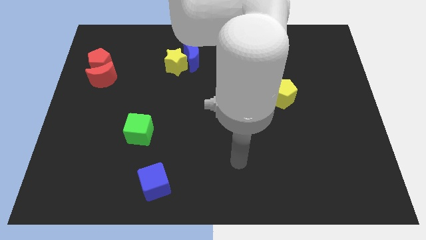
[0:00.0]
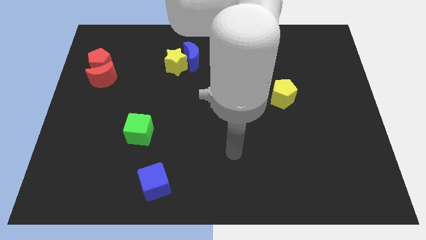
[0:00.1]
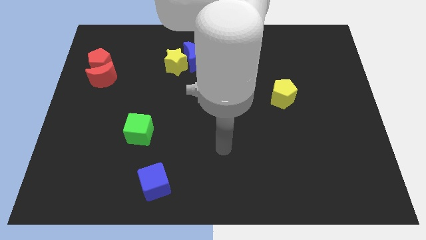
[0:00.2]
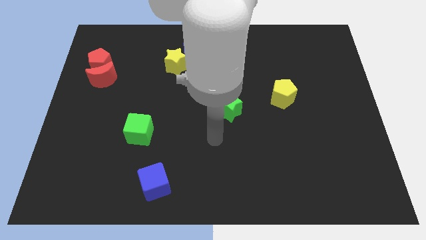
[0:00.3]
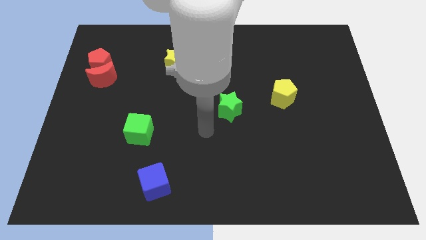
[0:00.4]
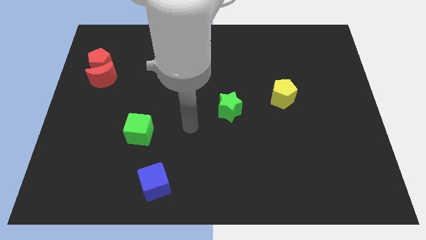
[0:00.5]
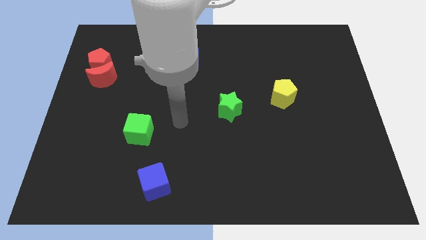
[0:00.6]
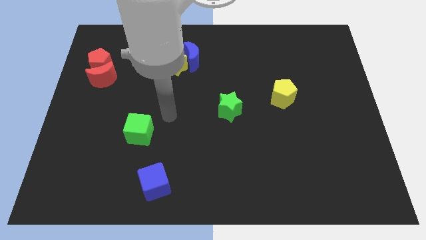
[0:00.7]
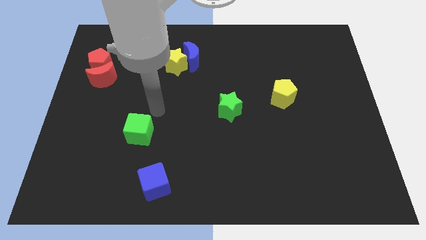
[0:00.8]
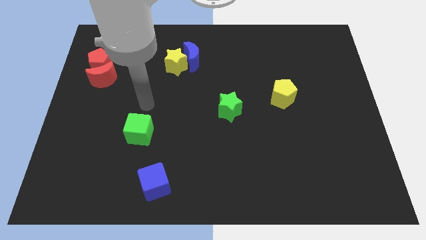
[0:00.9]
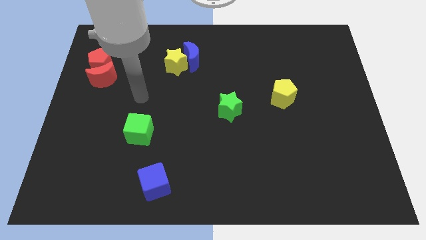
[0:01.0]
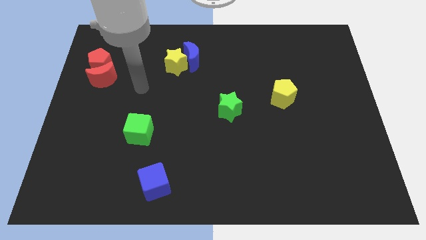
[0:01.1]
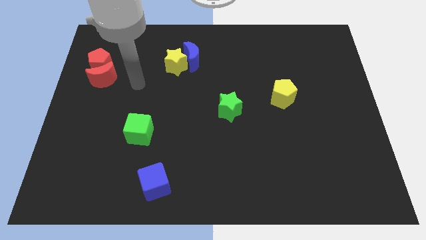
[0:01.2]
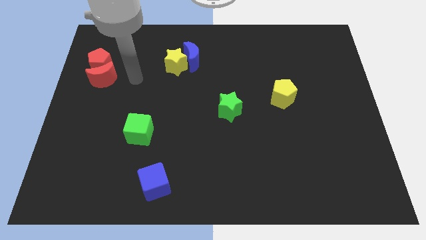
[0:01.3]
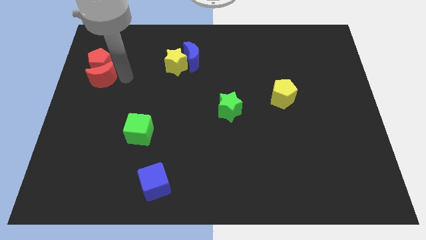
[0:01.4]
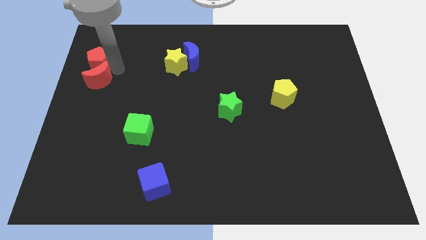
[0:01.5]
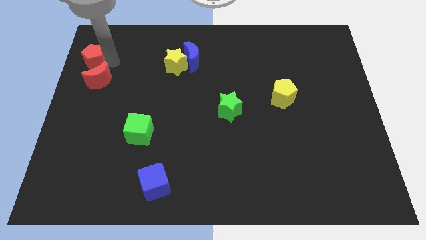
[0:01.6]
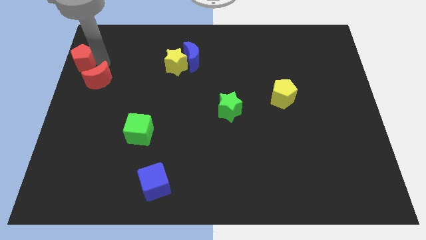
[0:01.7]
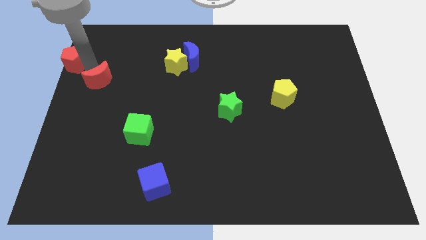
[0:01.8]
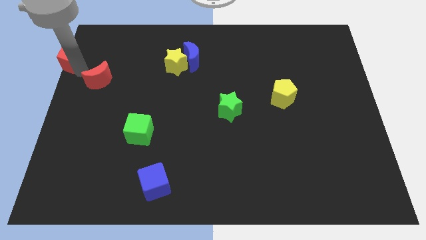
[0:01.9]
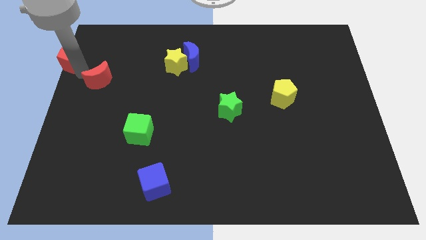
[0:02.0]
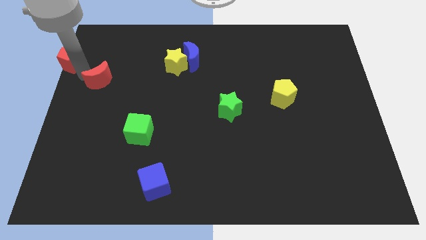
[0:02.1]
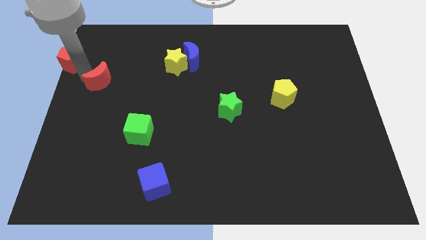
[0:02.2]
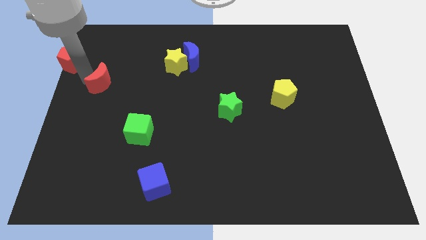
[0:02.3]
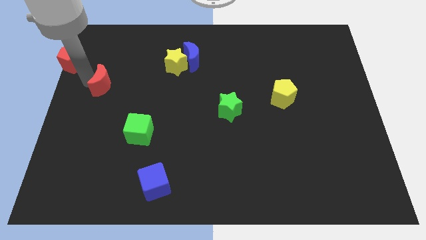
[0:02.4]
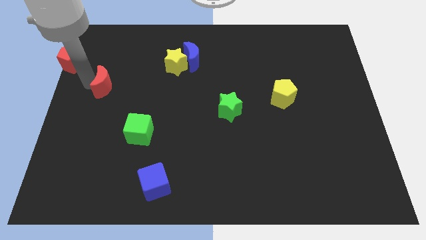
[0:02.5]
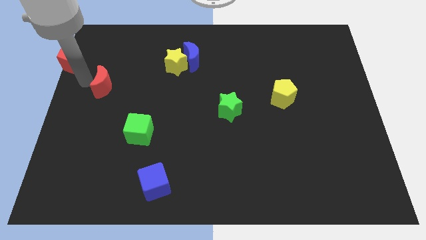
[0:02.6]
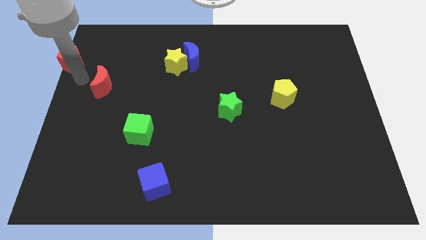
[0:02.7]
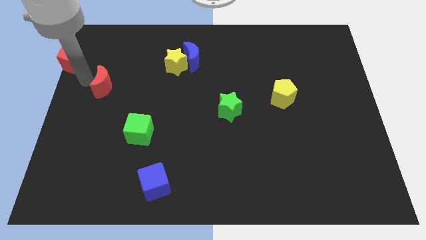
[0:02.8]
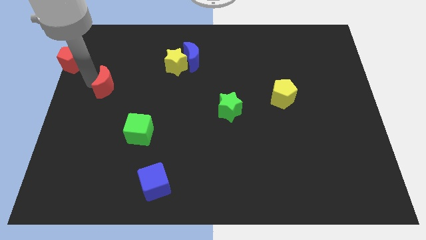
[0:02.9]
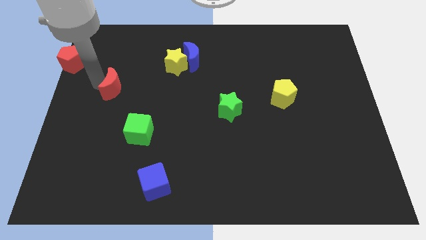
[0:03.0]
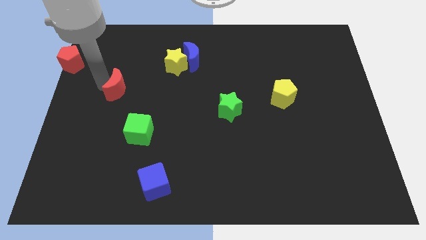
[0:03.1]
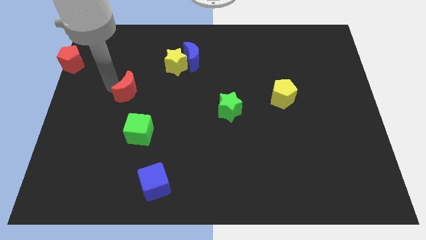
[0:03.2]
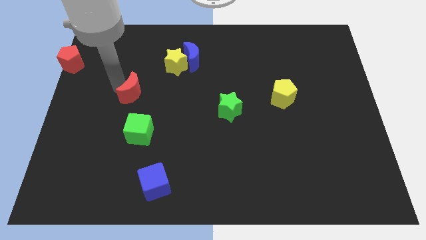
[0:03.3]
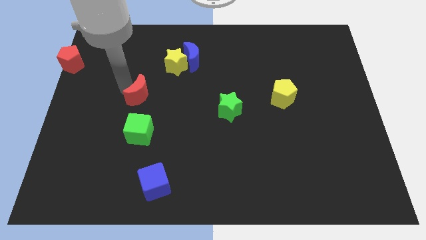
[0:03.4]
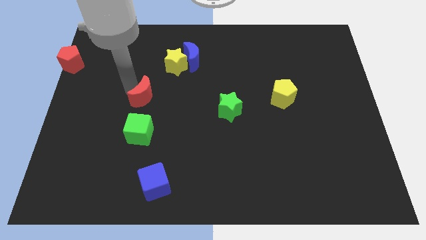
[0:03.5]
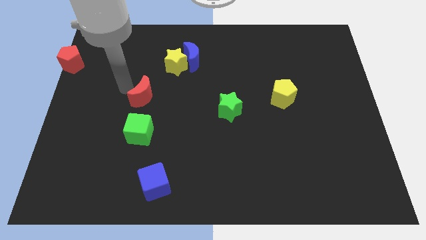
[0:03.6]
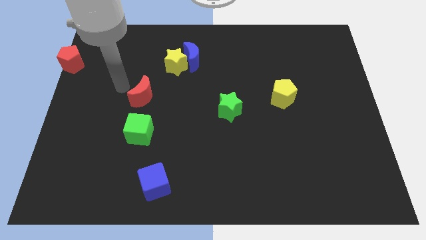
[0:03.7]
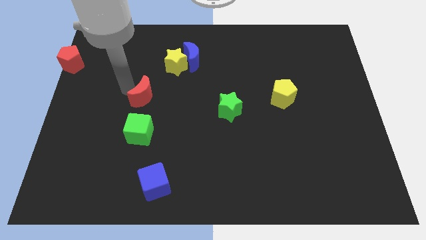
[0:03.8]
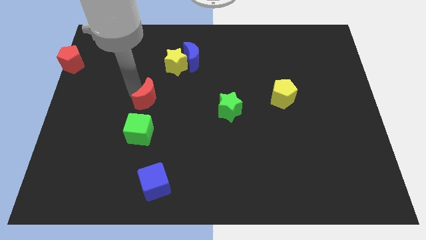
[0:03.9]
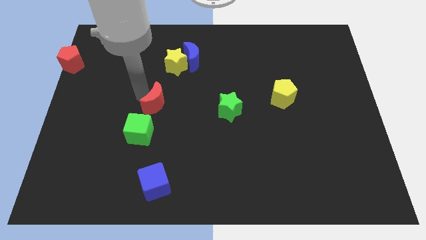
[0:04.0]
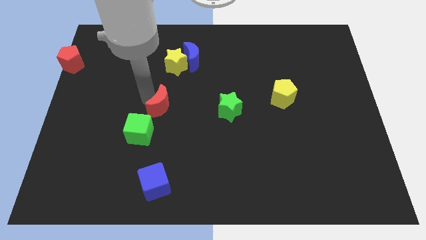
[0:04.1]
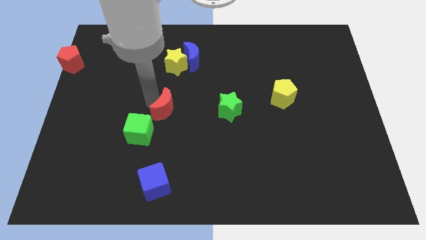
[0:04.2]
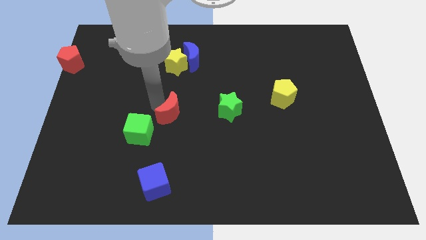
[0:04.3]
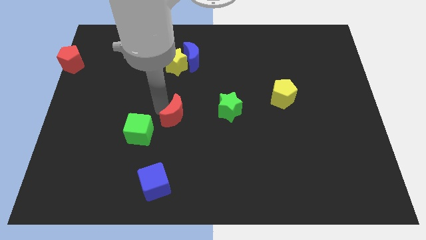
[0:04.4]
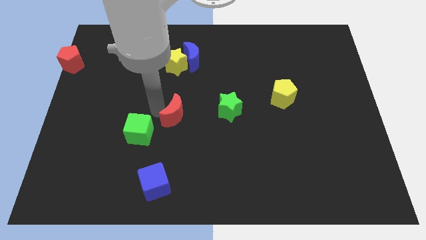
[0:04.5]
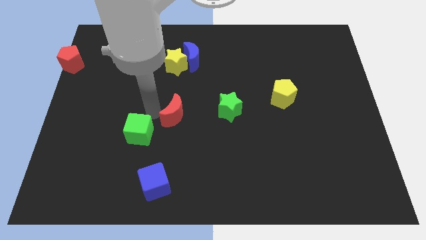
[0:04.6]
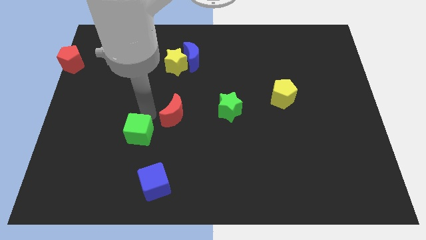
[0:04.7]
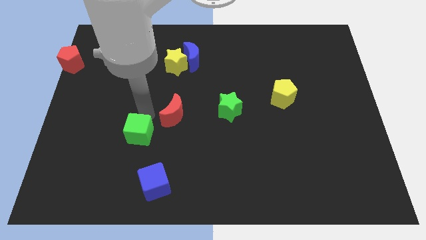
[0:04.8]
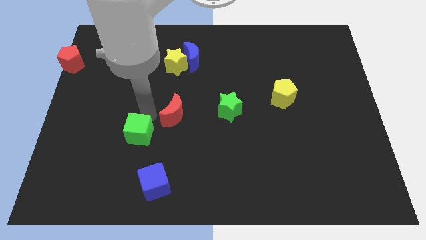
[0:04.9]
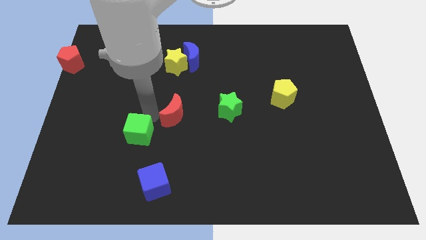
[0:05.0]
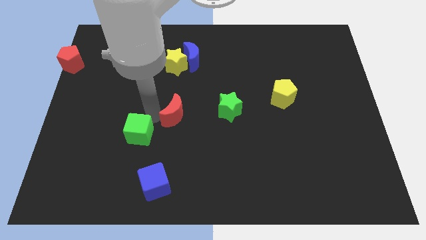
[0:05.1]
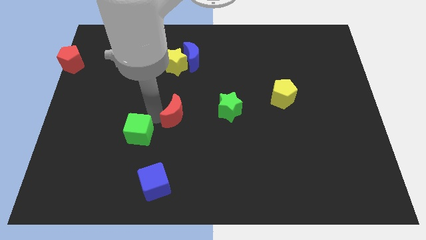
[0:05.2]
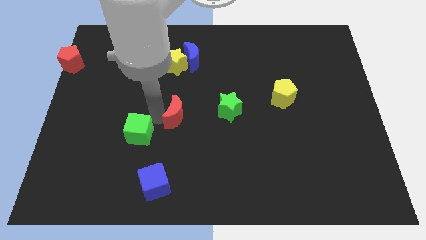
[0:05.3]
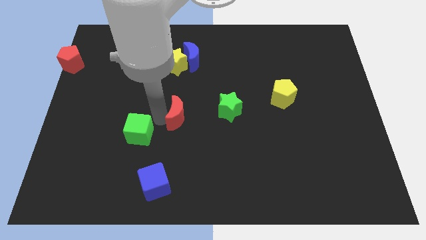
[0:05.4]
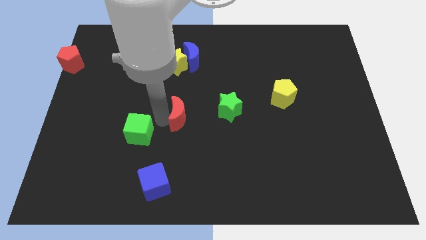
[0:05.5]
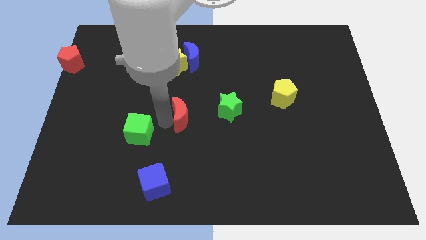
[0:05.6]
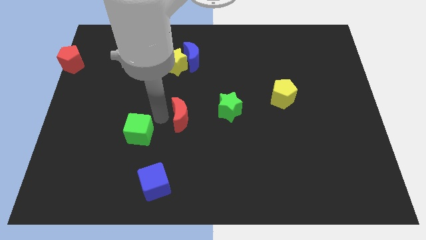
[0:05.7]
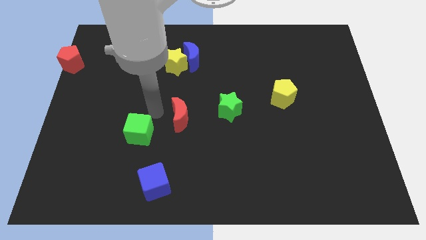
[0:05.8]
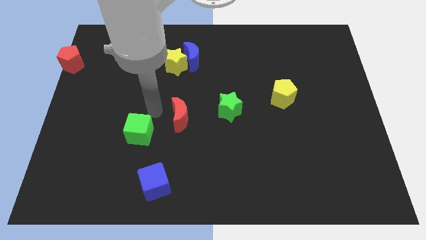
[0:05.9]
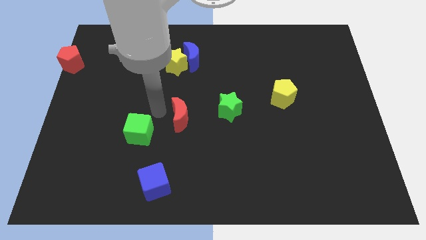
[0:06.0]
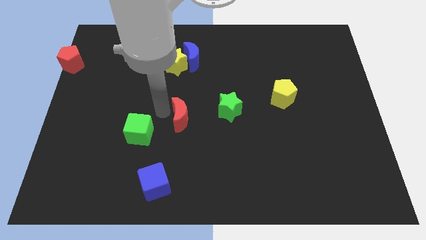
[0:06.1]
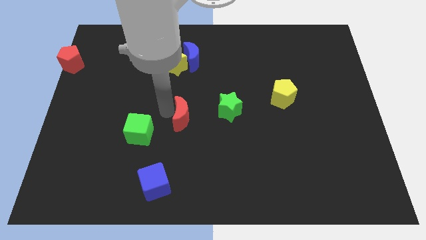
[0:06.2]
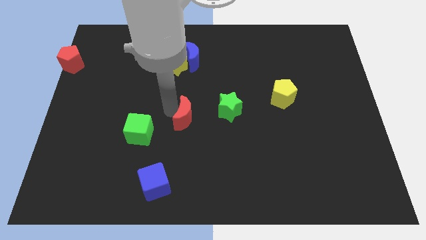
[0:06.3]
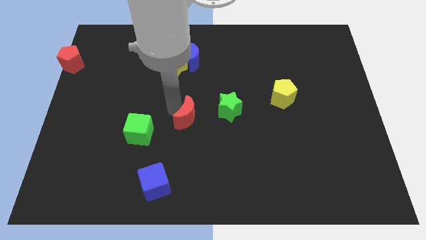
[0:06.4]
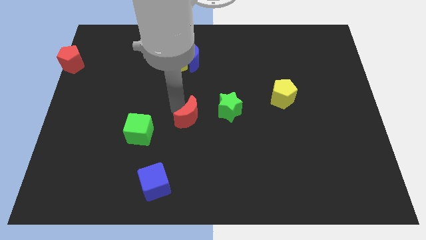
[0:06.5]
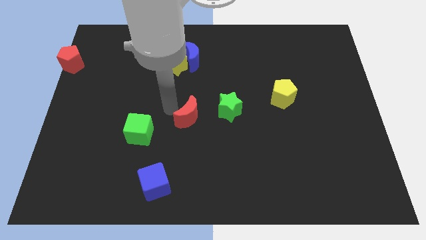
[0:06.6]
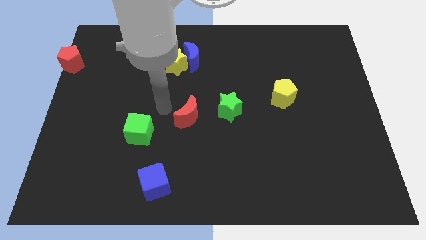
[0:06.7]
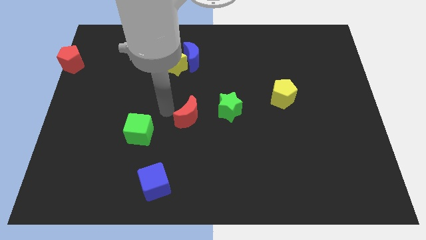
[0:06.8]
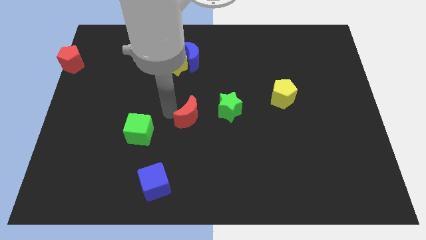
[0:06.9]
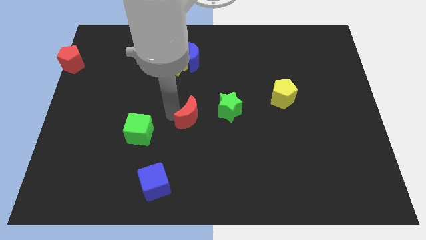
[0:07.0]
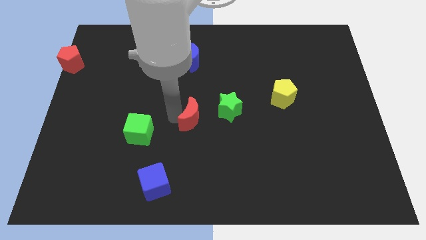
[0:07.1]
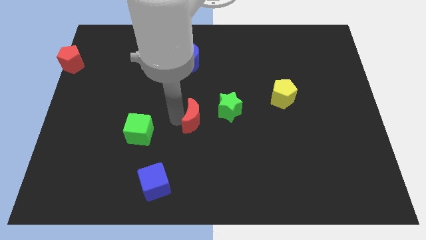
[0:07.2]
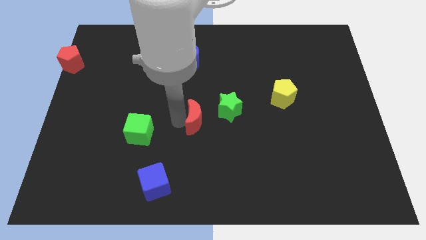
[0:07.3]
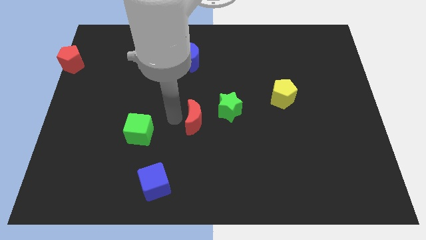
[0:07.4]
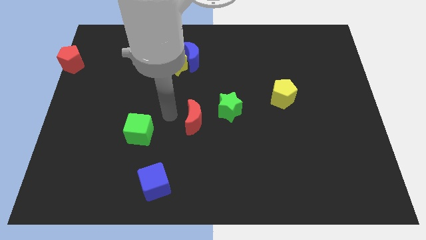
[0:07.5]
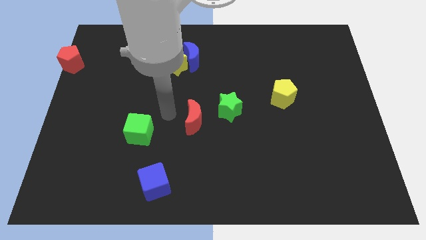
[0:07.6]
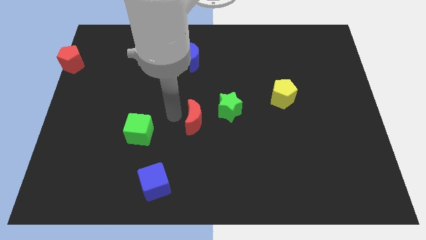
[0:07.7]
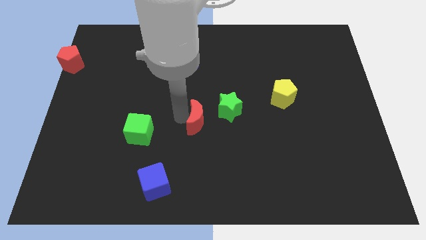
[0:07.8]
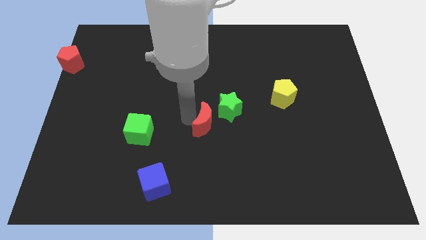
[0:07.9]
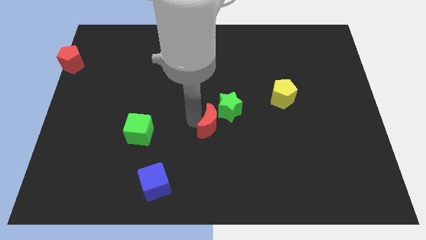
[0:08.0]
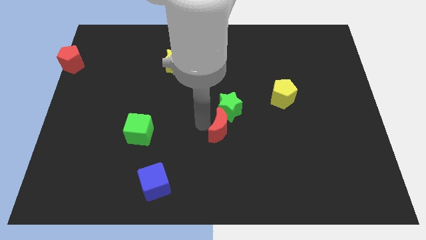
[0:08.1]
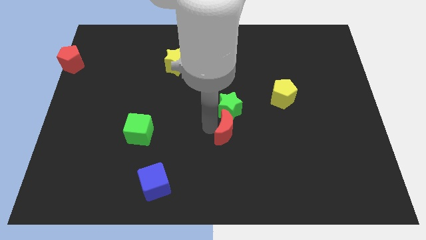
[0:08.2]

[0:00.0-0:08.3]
push the red moon to the bottom right of the green star
